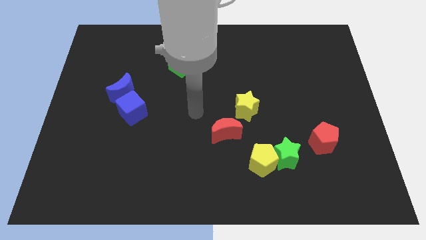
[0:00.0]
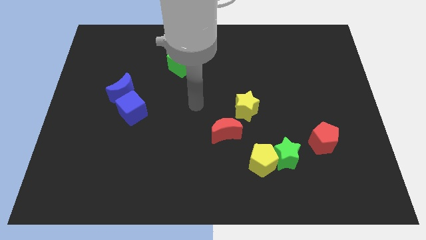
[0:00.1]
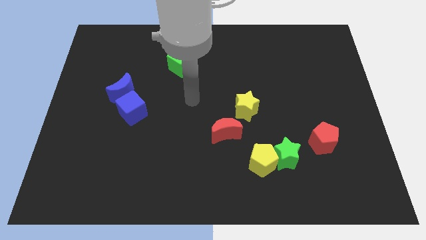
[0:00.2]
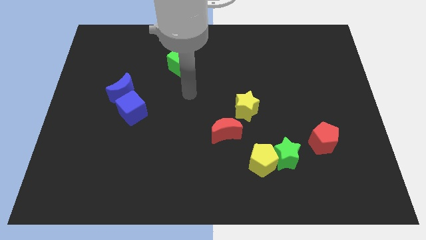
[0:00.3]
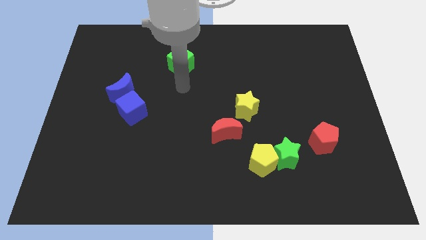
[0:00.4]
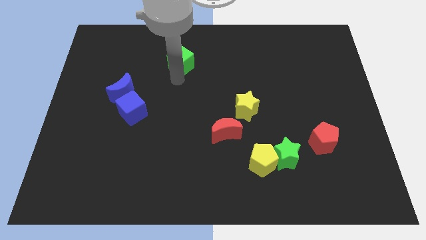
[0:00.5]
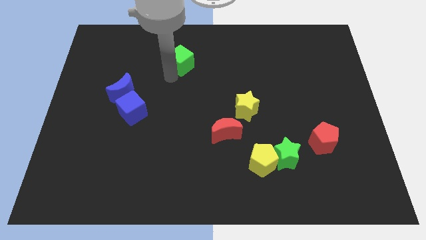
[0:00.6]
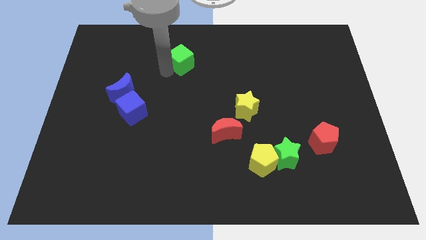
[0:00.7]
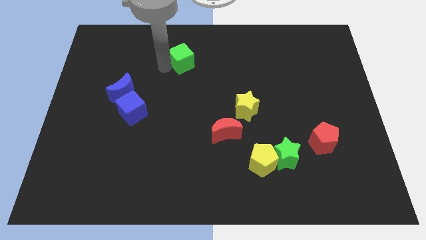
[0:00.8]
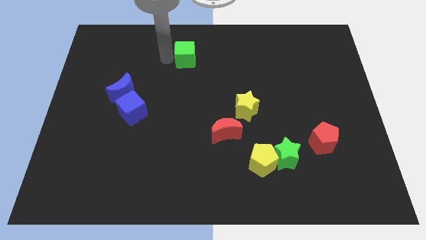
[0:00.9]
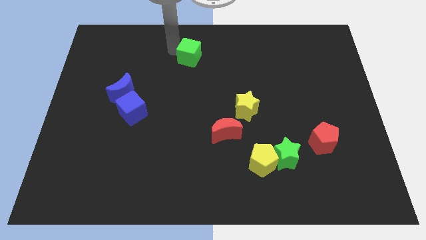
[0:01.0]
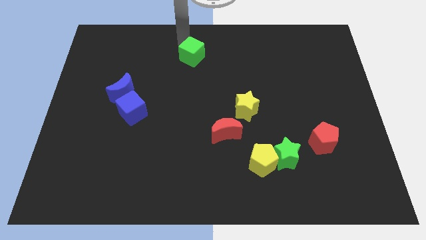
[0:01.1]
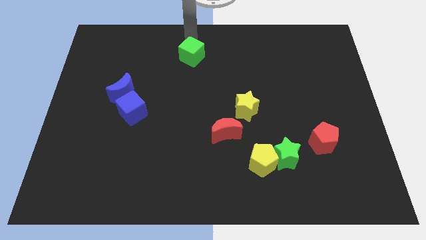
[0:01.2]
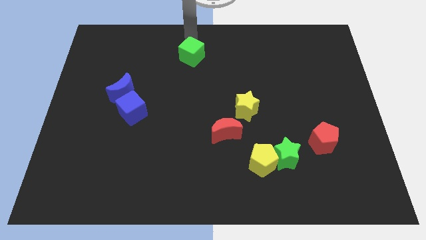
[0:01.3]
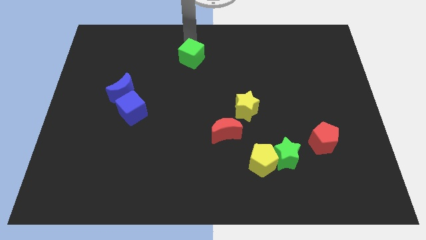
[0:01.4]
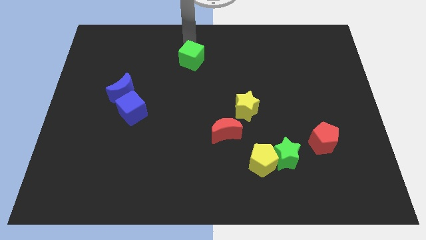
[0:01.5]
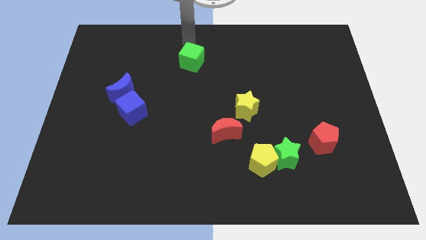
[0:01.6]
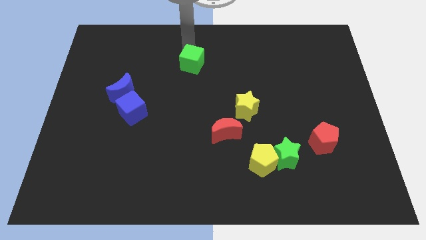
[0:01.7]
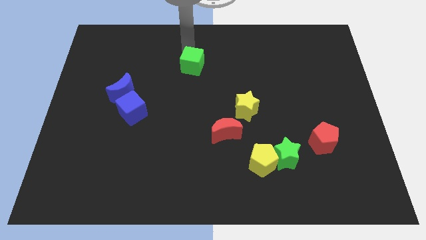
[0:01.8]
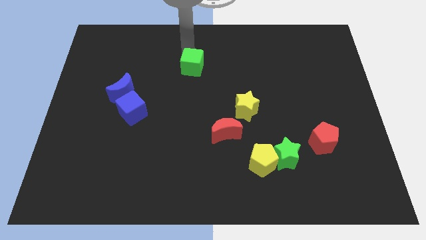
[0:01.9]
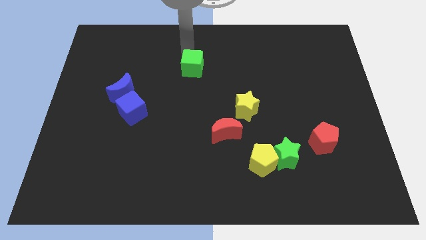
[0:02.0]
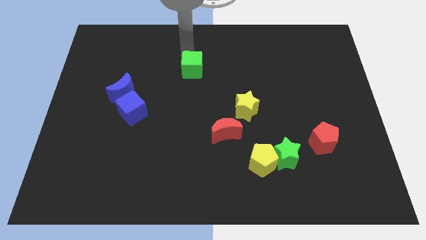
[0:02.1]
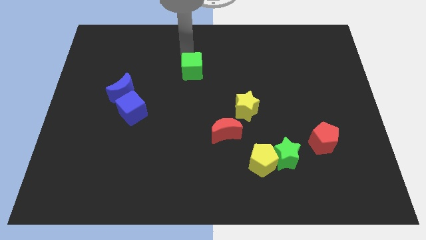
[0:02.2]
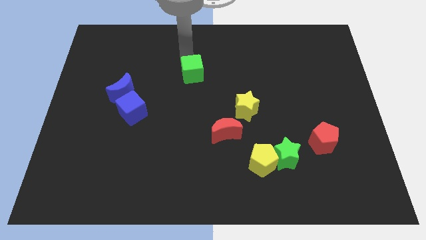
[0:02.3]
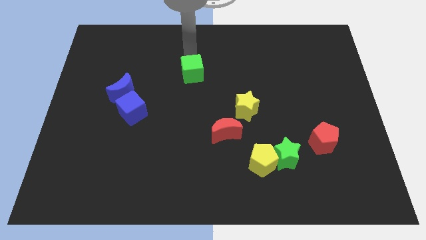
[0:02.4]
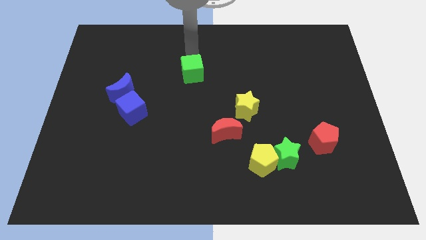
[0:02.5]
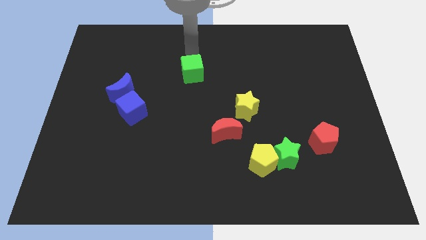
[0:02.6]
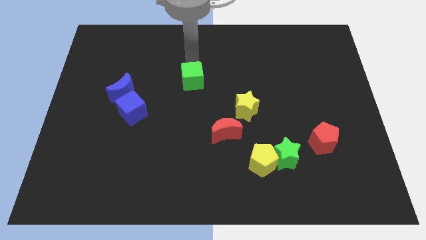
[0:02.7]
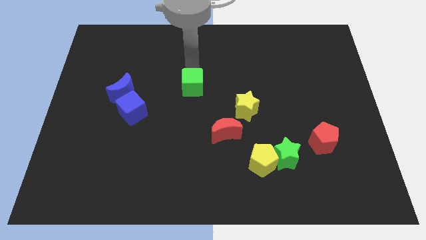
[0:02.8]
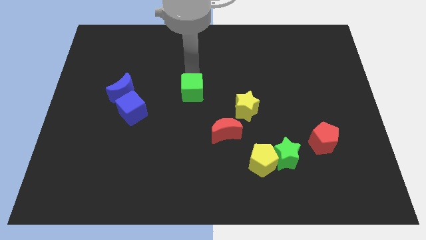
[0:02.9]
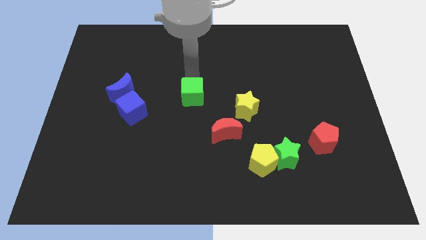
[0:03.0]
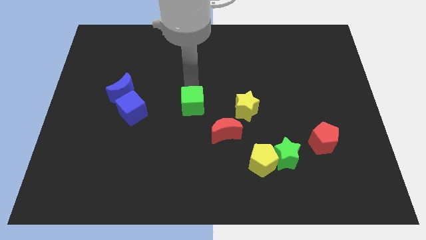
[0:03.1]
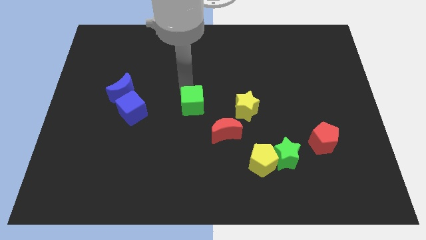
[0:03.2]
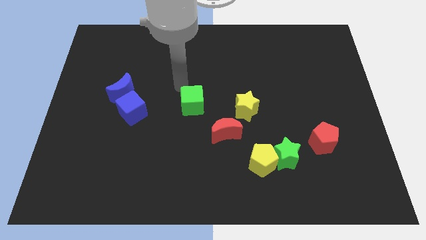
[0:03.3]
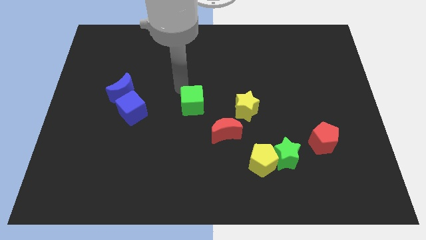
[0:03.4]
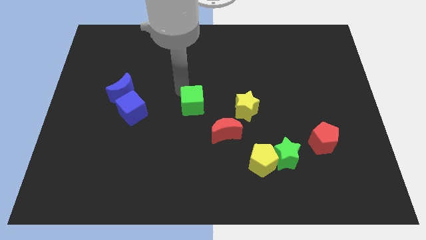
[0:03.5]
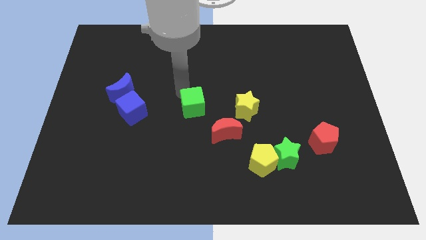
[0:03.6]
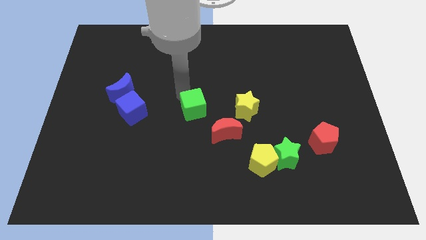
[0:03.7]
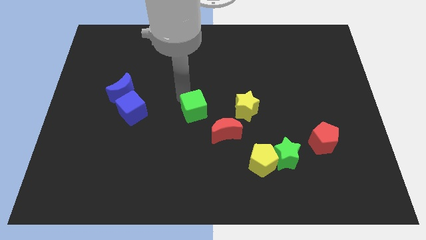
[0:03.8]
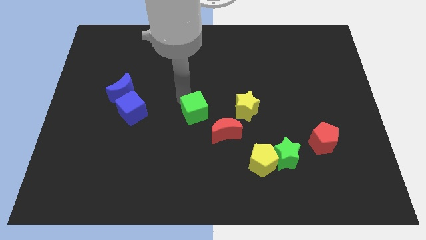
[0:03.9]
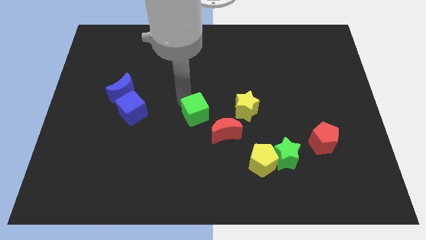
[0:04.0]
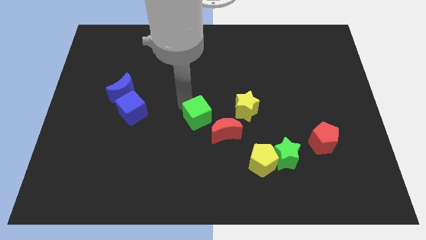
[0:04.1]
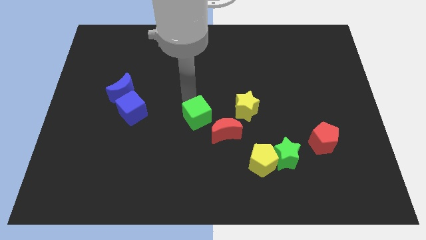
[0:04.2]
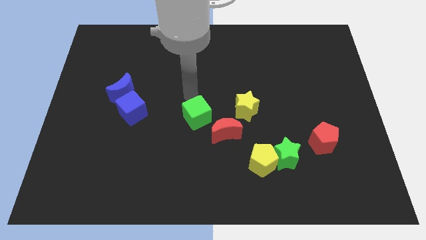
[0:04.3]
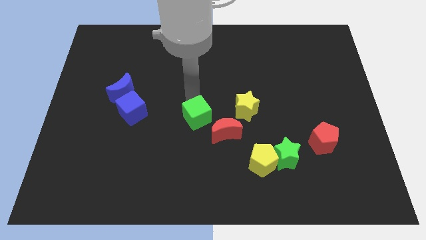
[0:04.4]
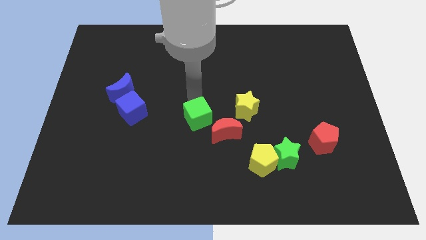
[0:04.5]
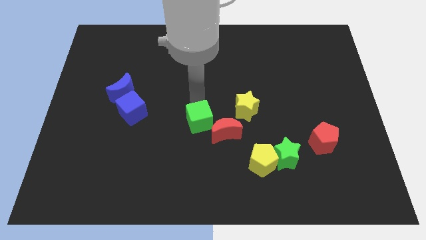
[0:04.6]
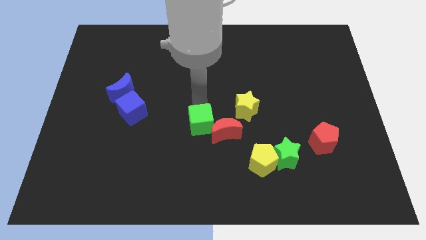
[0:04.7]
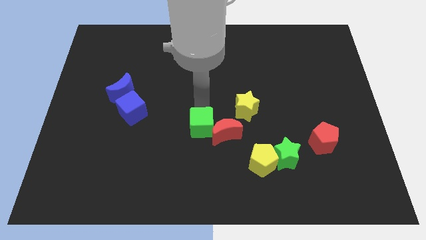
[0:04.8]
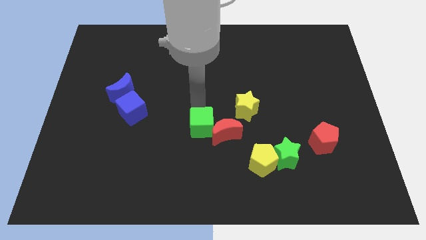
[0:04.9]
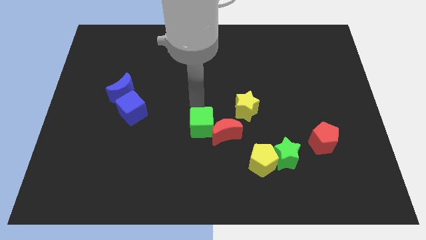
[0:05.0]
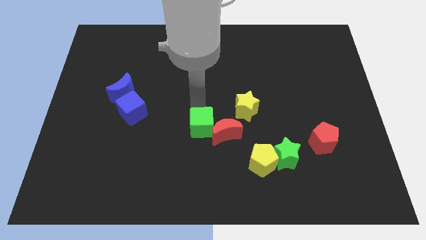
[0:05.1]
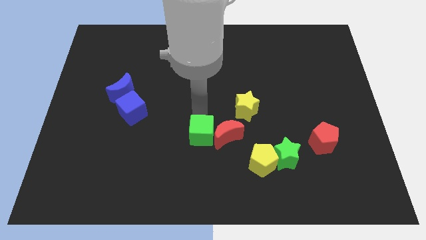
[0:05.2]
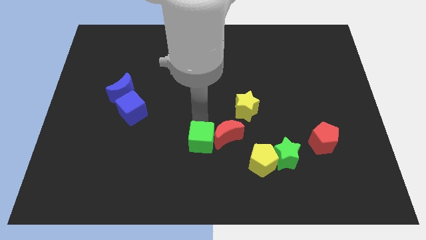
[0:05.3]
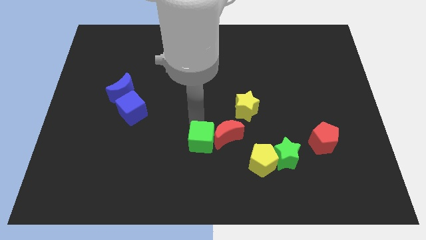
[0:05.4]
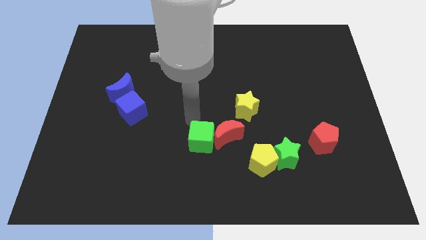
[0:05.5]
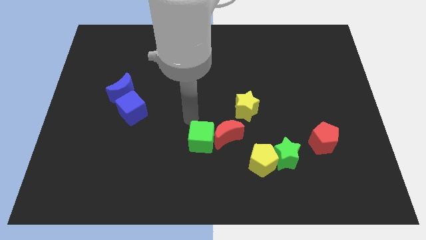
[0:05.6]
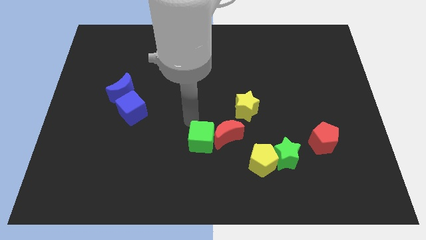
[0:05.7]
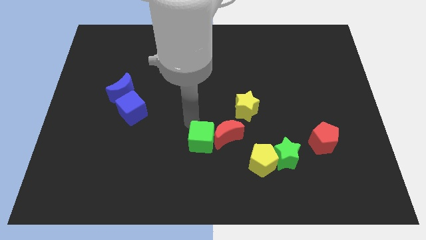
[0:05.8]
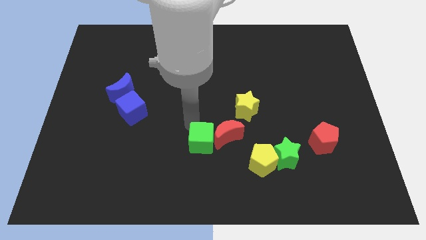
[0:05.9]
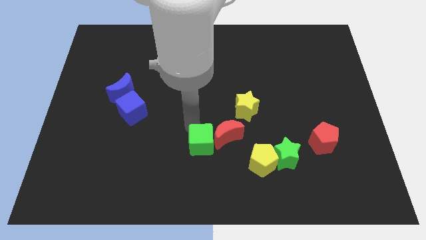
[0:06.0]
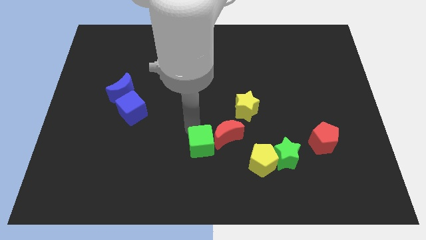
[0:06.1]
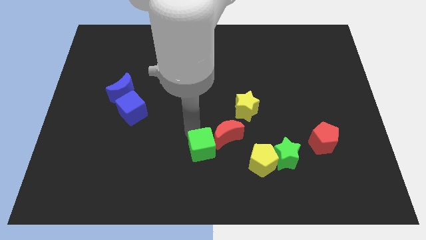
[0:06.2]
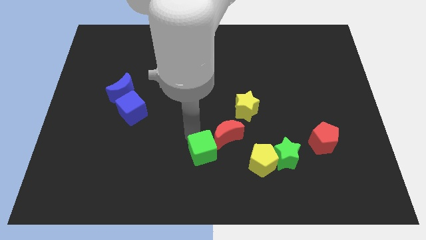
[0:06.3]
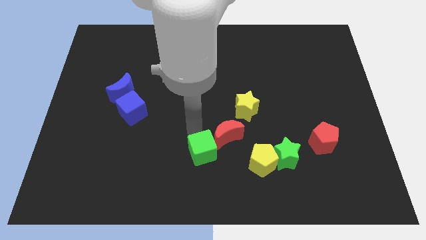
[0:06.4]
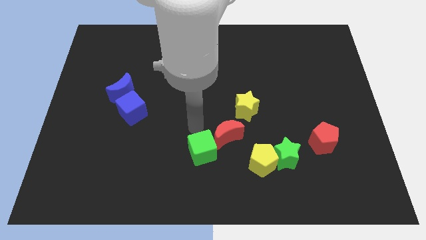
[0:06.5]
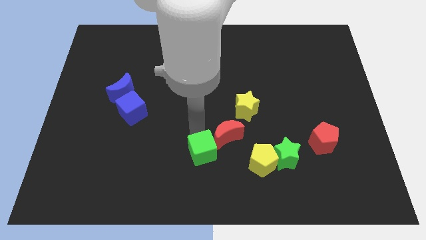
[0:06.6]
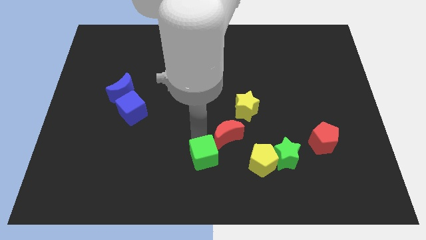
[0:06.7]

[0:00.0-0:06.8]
move the green cube to the bottom side
